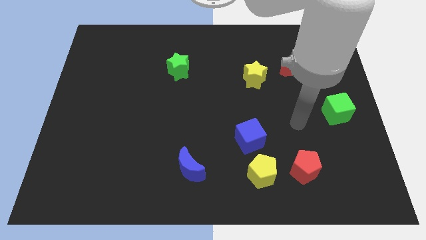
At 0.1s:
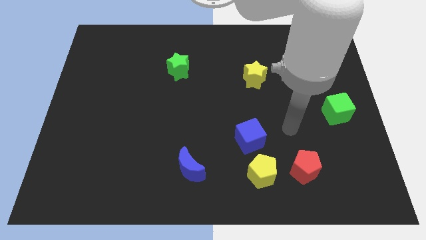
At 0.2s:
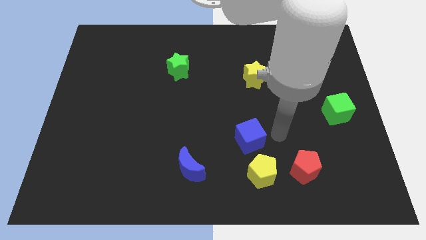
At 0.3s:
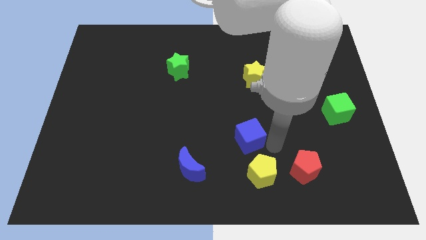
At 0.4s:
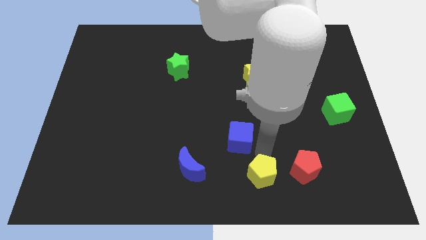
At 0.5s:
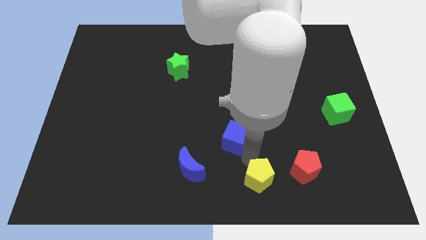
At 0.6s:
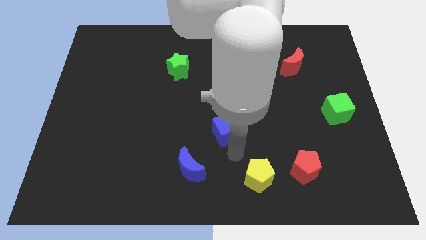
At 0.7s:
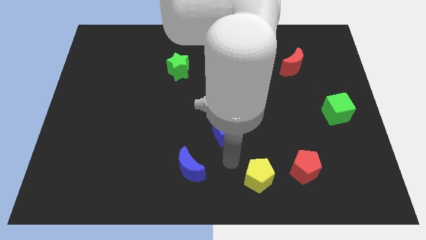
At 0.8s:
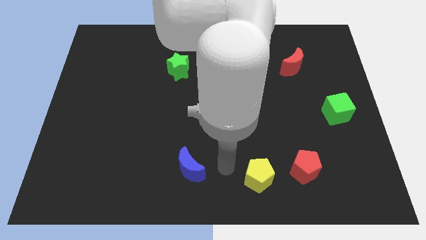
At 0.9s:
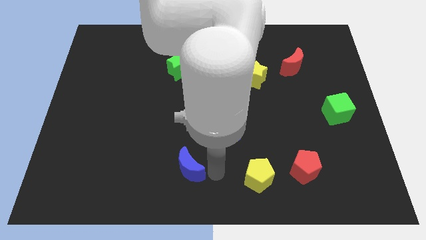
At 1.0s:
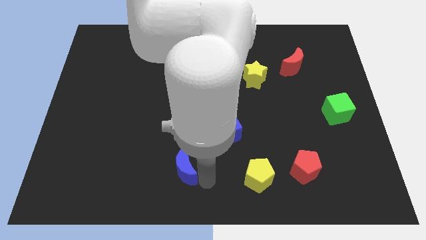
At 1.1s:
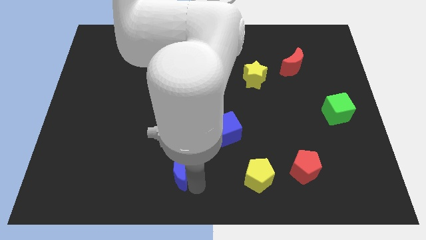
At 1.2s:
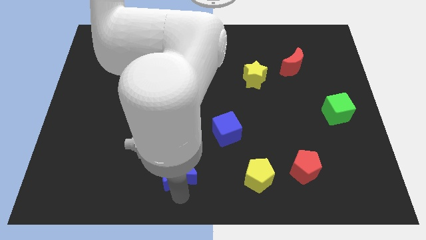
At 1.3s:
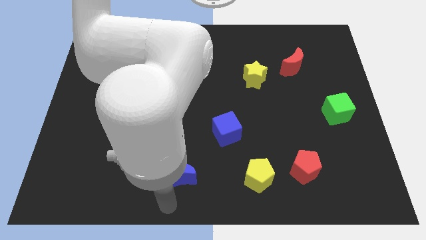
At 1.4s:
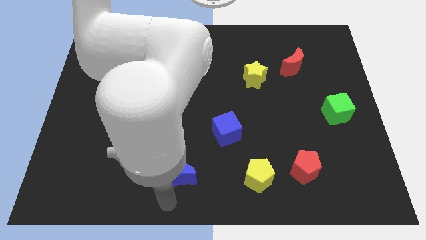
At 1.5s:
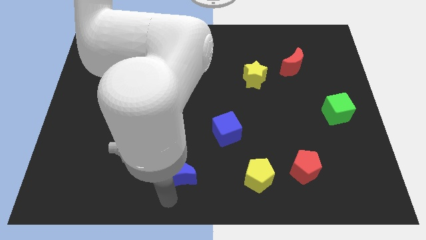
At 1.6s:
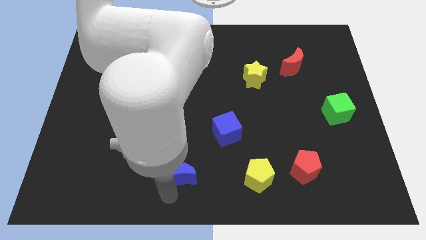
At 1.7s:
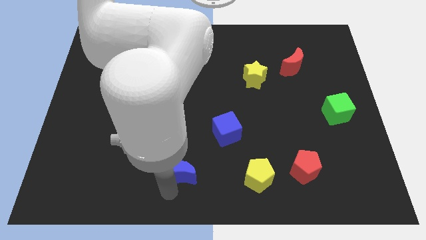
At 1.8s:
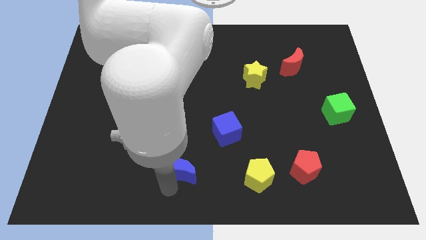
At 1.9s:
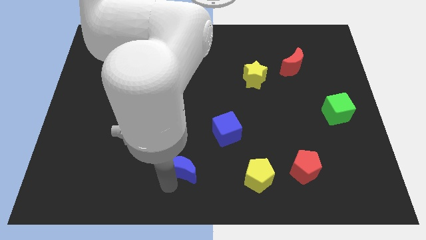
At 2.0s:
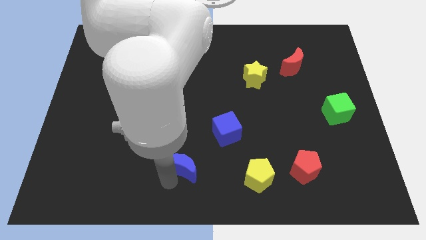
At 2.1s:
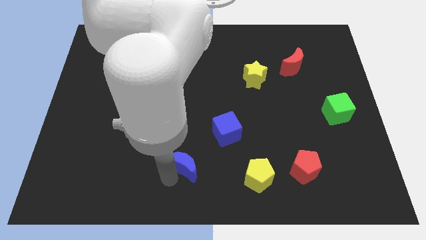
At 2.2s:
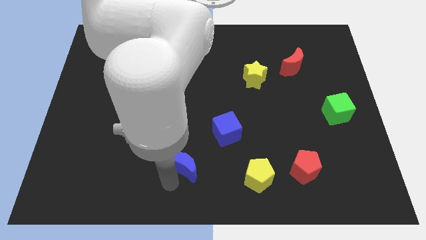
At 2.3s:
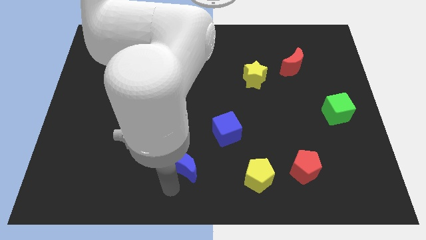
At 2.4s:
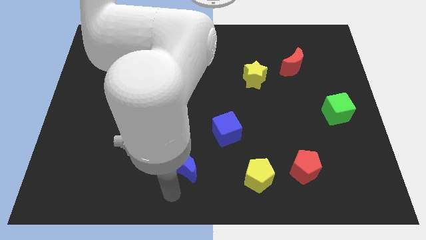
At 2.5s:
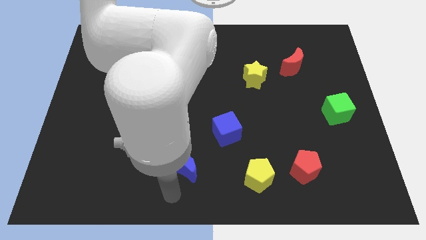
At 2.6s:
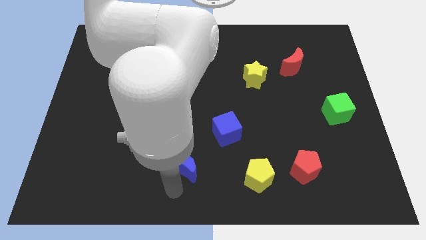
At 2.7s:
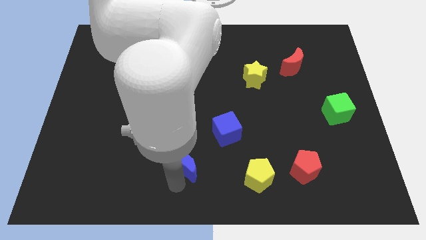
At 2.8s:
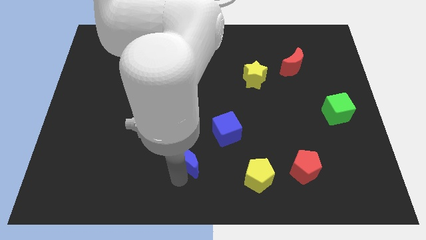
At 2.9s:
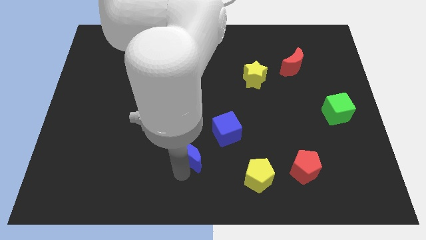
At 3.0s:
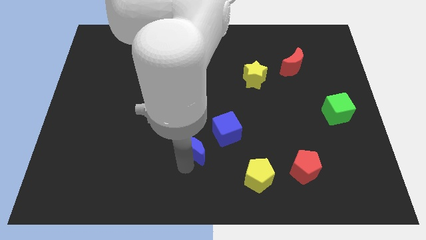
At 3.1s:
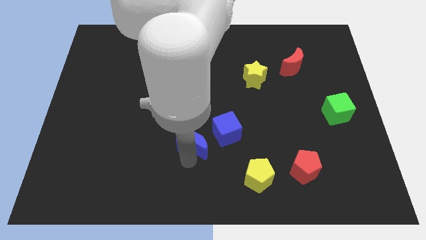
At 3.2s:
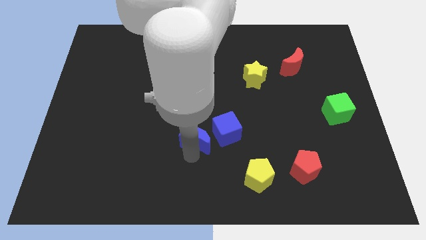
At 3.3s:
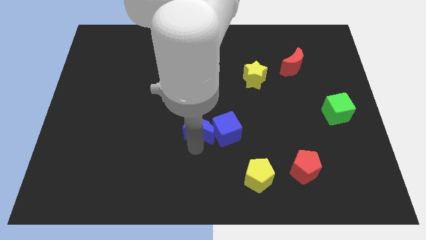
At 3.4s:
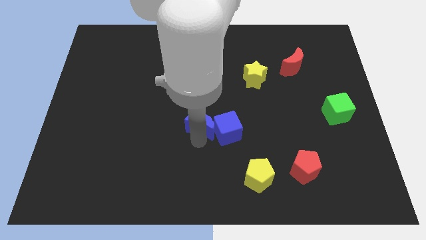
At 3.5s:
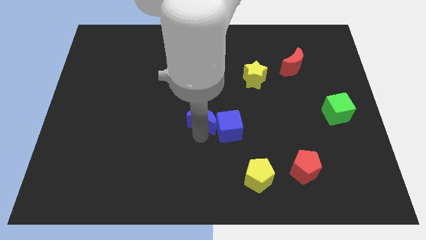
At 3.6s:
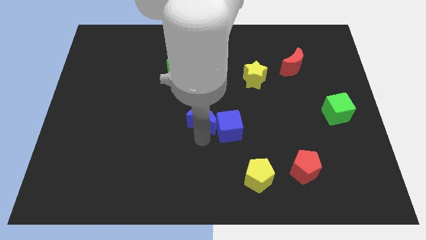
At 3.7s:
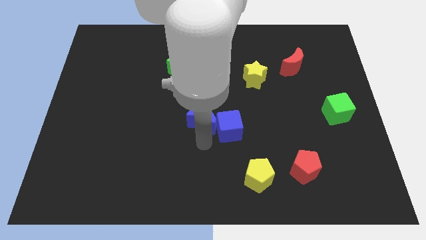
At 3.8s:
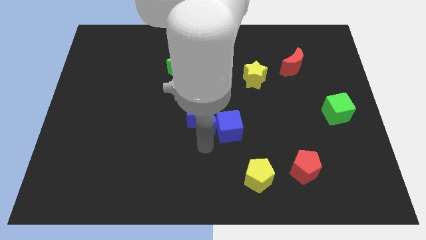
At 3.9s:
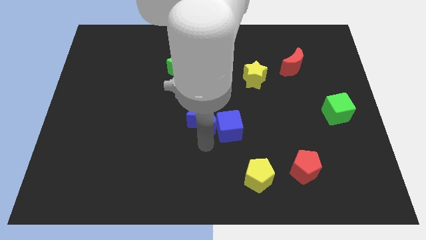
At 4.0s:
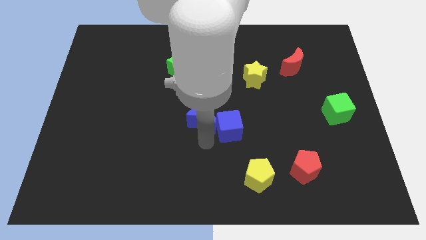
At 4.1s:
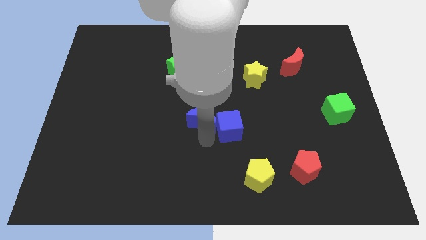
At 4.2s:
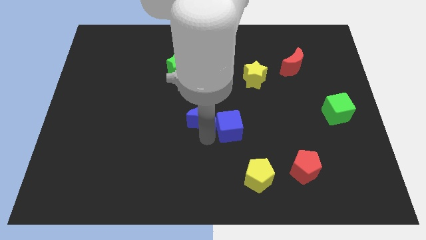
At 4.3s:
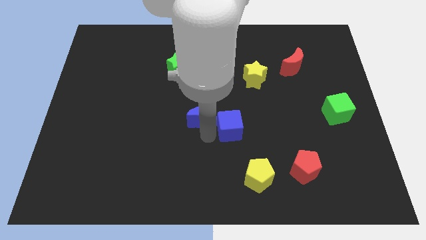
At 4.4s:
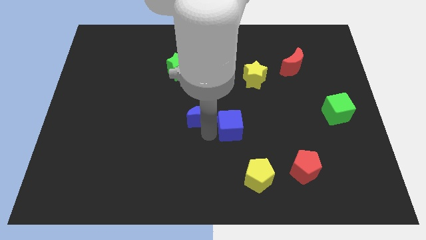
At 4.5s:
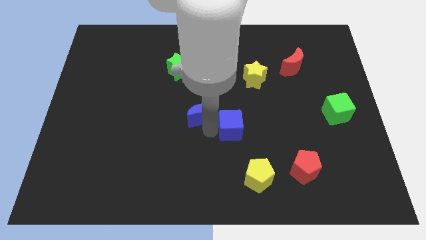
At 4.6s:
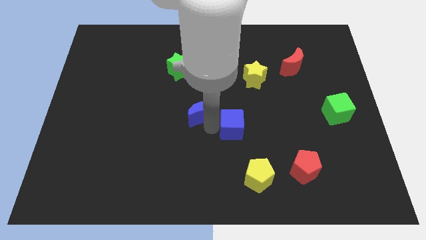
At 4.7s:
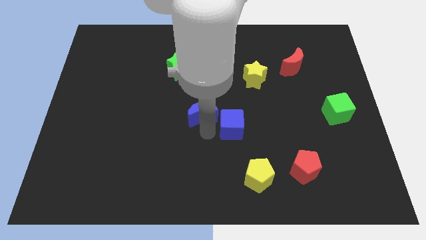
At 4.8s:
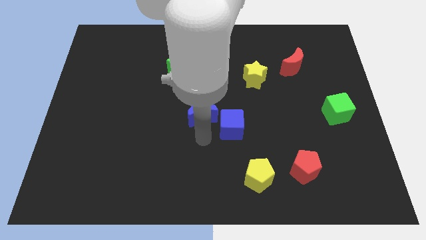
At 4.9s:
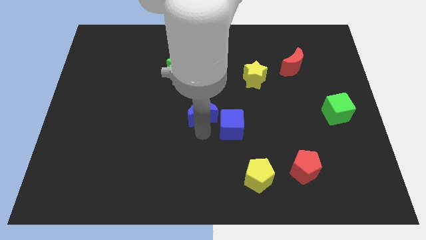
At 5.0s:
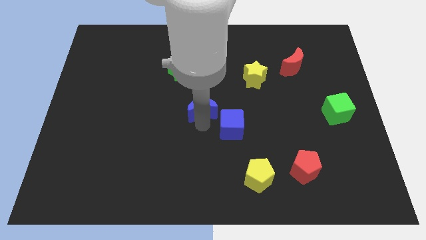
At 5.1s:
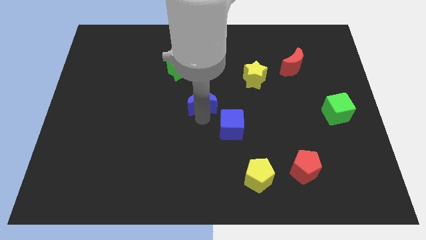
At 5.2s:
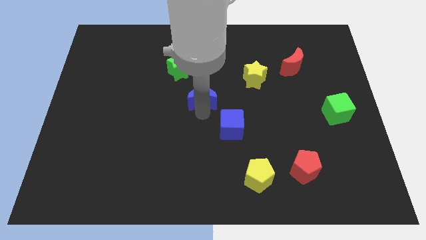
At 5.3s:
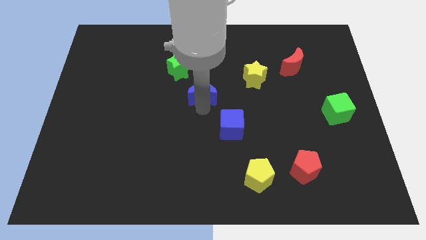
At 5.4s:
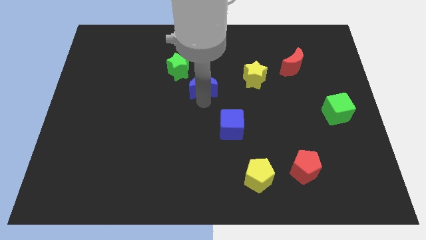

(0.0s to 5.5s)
slide the blue moon up

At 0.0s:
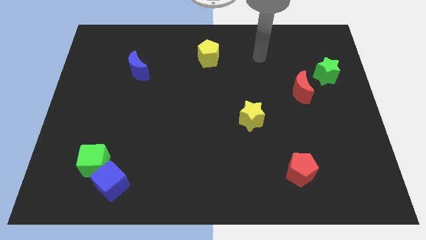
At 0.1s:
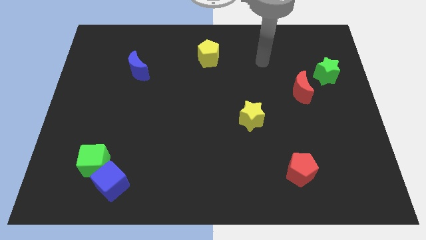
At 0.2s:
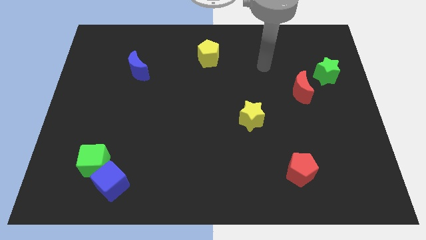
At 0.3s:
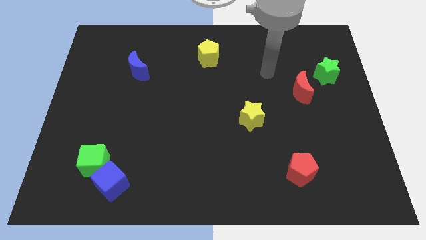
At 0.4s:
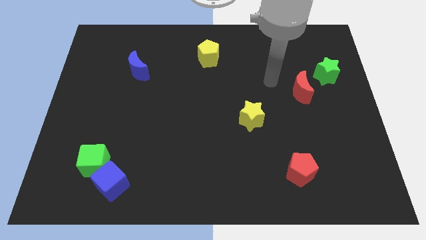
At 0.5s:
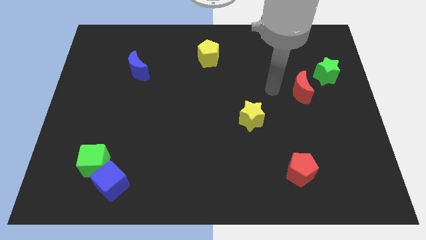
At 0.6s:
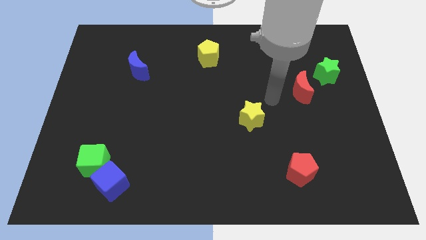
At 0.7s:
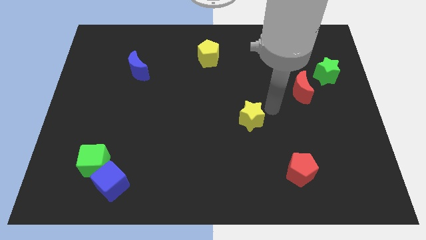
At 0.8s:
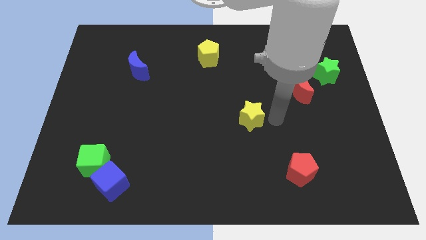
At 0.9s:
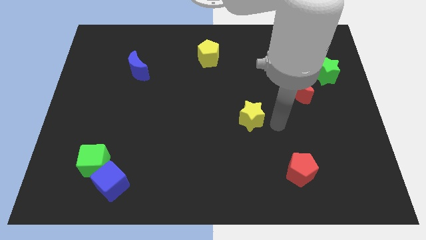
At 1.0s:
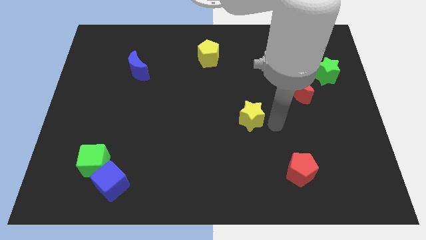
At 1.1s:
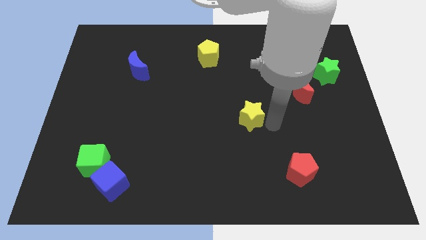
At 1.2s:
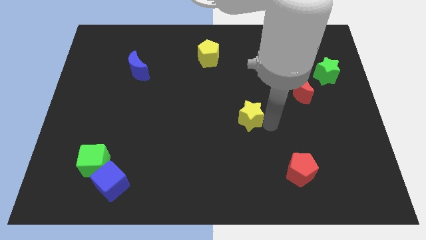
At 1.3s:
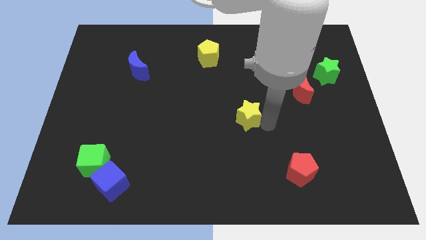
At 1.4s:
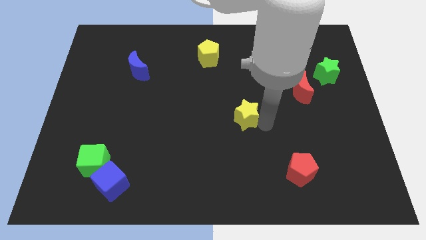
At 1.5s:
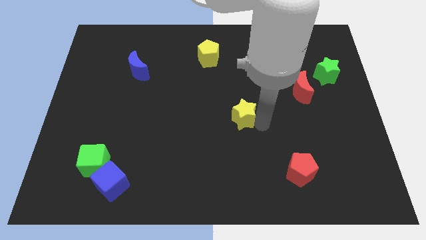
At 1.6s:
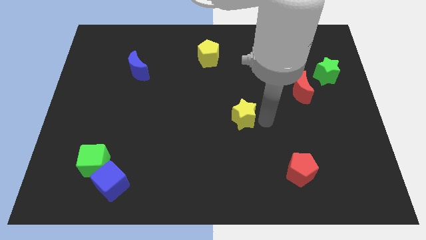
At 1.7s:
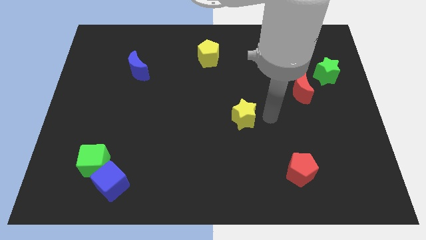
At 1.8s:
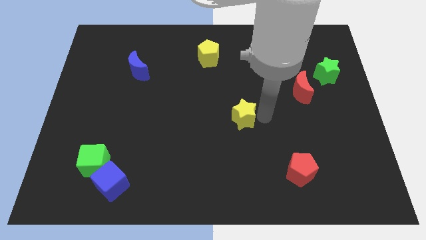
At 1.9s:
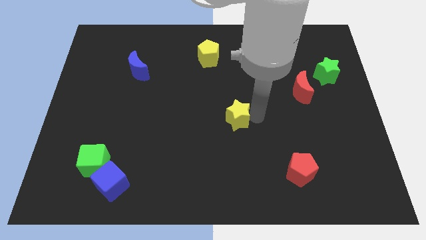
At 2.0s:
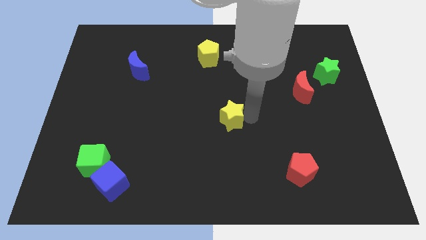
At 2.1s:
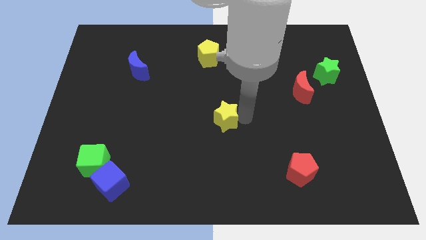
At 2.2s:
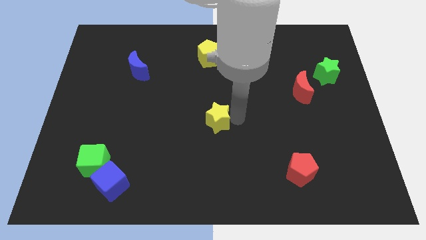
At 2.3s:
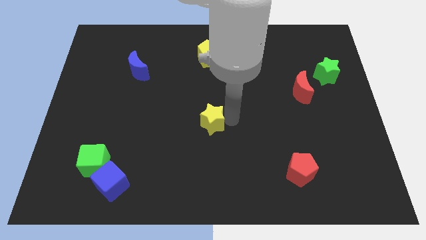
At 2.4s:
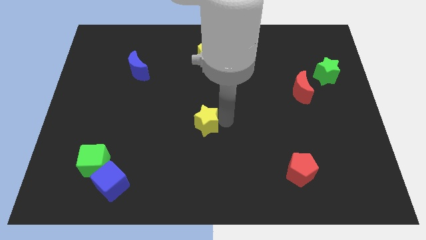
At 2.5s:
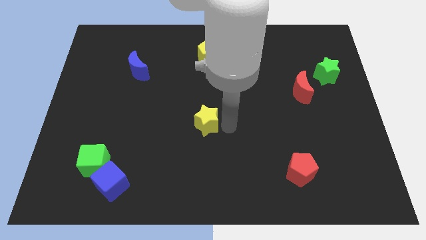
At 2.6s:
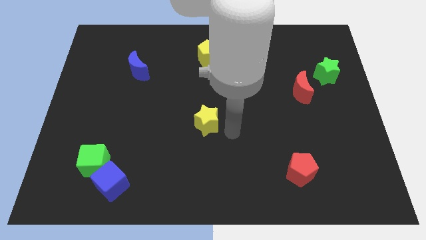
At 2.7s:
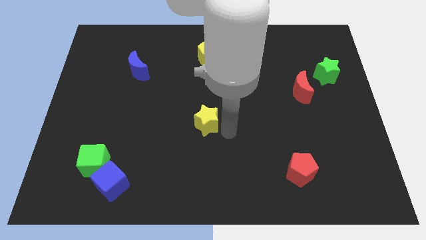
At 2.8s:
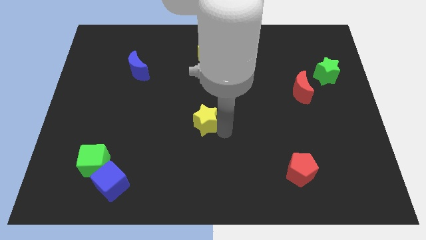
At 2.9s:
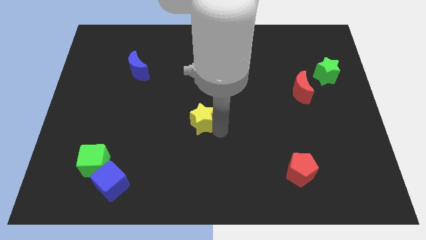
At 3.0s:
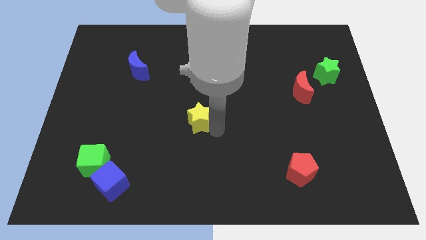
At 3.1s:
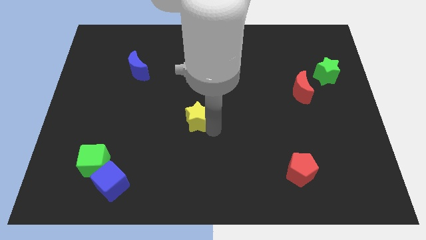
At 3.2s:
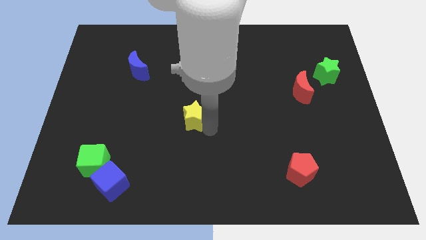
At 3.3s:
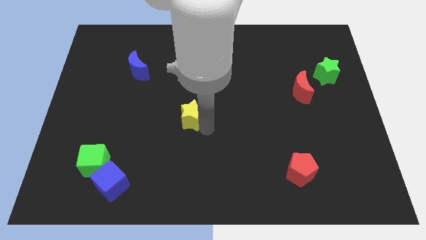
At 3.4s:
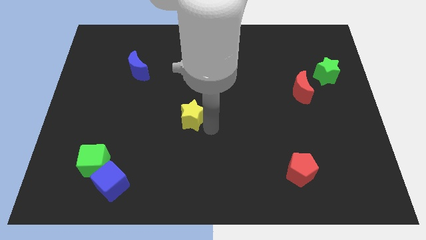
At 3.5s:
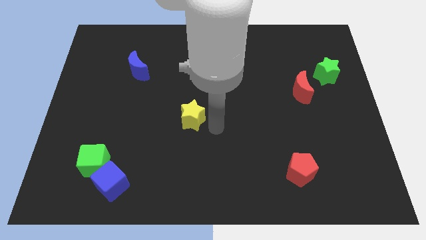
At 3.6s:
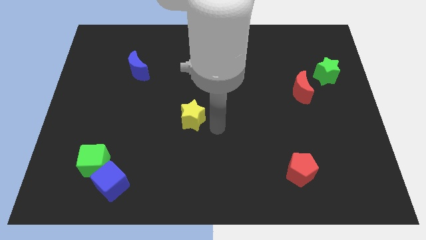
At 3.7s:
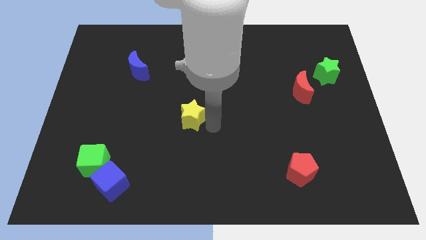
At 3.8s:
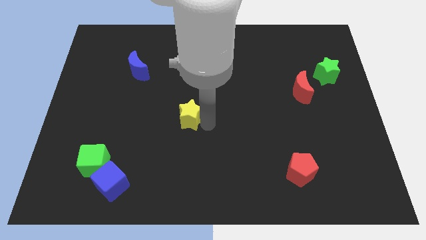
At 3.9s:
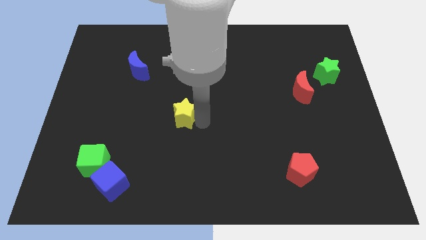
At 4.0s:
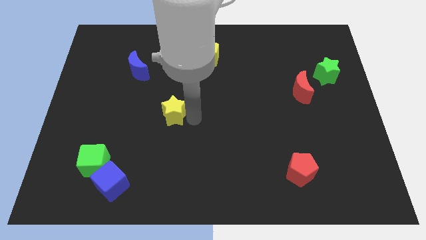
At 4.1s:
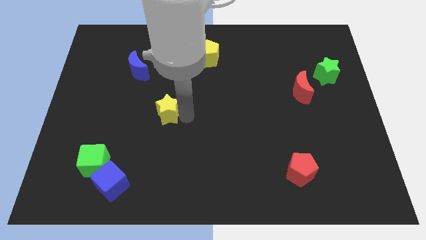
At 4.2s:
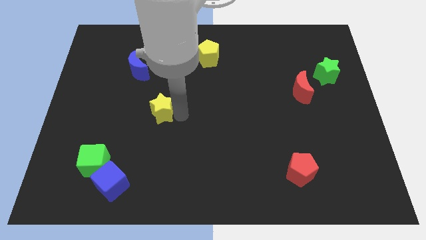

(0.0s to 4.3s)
slide the yellow star to the left
